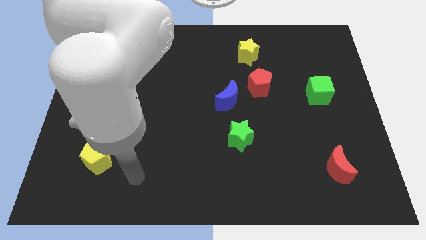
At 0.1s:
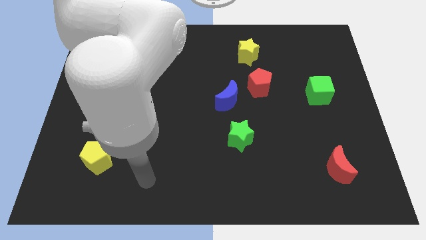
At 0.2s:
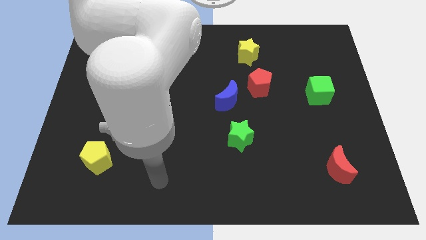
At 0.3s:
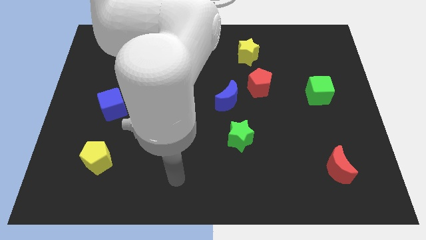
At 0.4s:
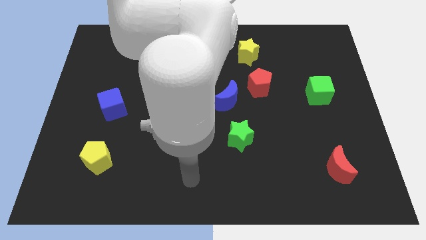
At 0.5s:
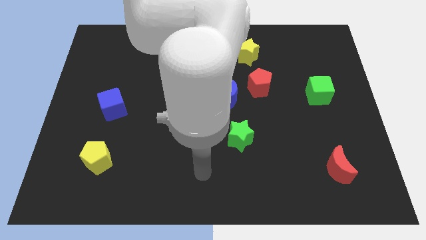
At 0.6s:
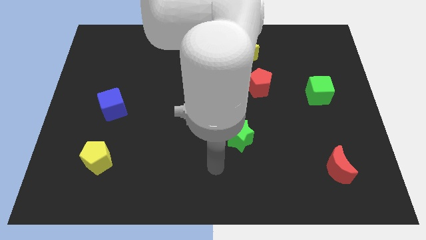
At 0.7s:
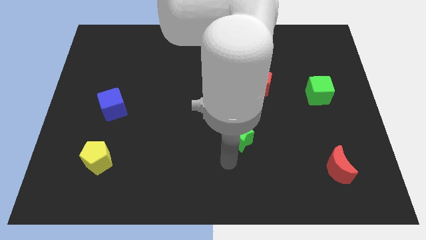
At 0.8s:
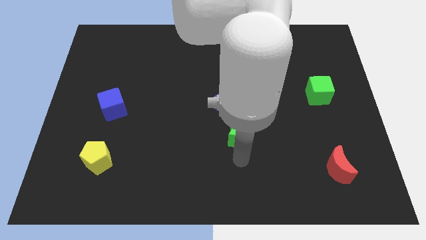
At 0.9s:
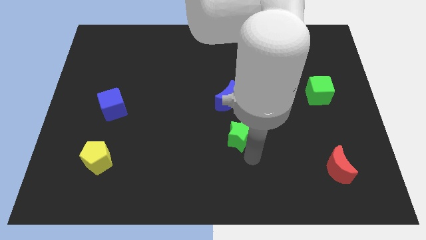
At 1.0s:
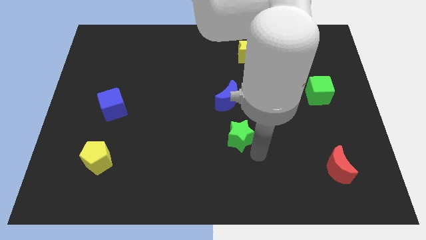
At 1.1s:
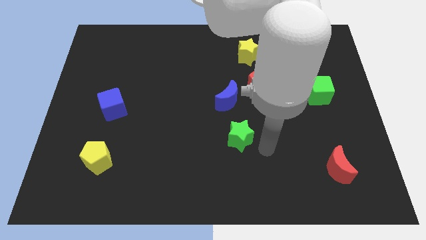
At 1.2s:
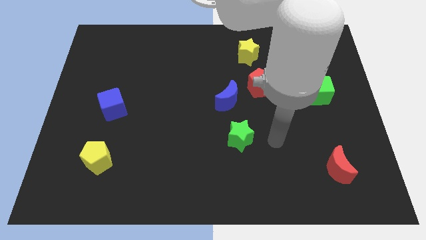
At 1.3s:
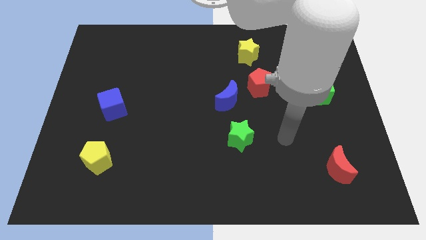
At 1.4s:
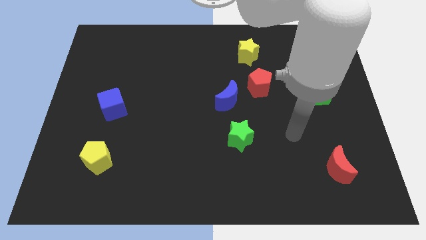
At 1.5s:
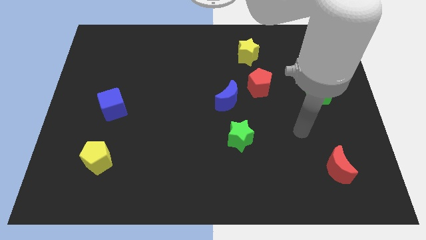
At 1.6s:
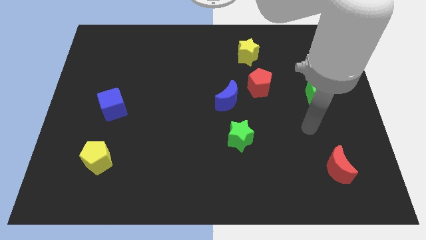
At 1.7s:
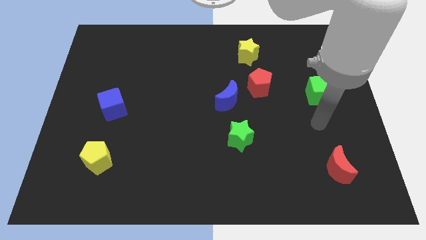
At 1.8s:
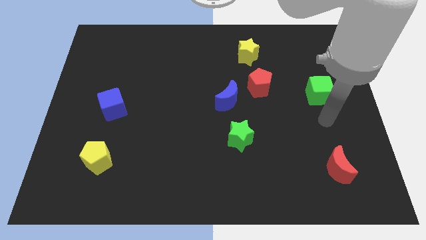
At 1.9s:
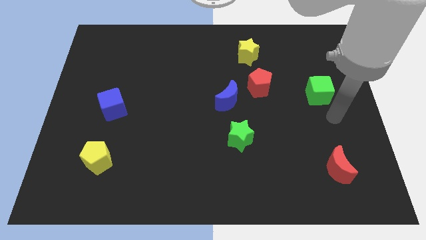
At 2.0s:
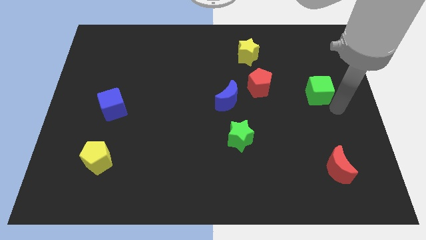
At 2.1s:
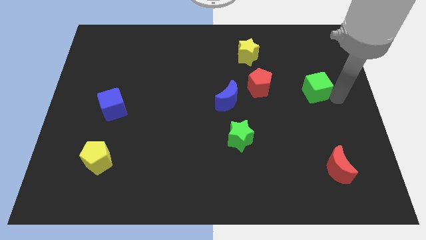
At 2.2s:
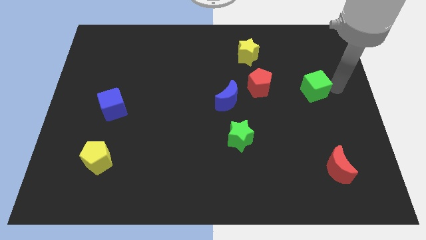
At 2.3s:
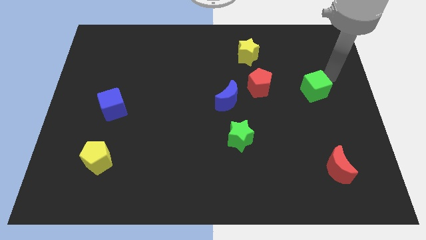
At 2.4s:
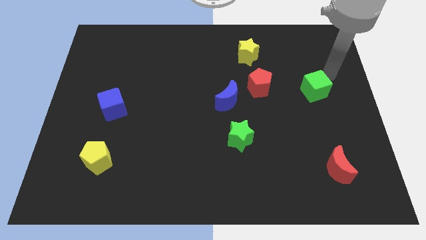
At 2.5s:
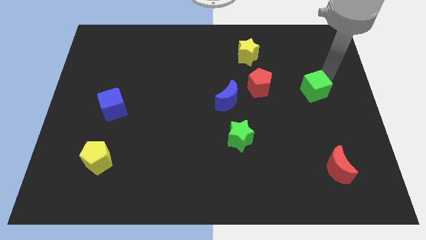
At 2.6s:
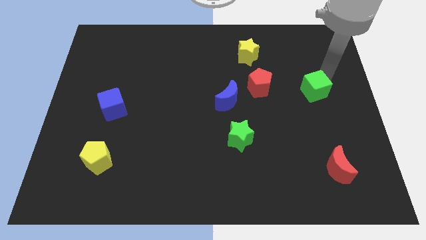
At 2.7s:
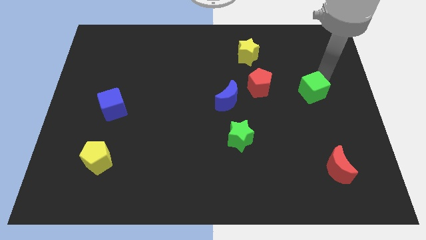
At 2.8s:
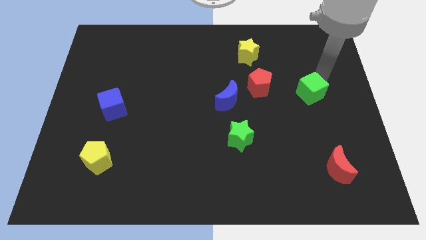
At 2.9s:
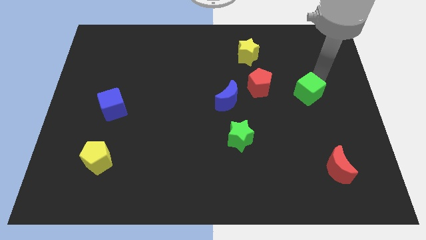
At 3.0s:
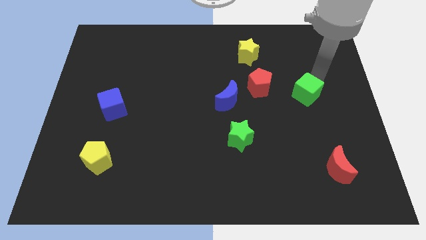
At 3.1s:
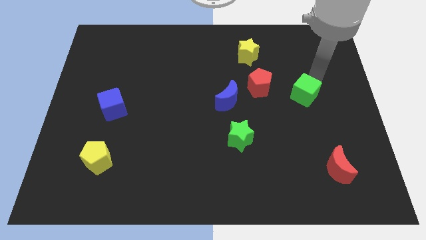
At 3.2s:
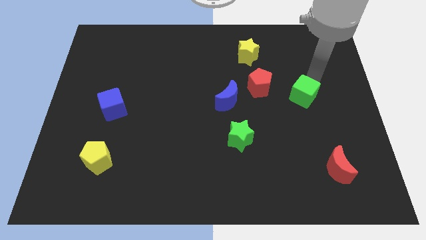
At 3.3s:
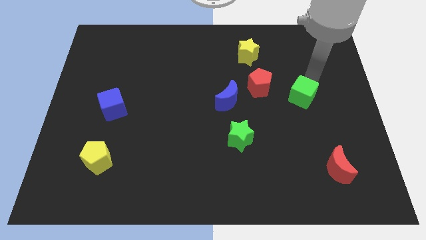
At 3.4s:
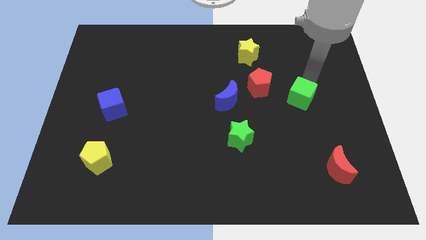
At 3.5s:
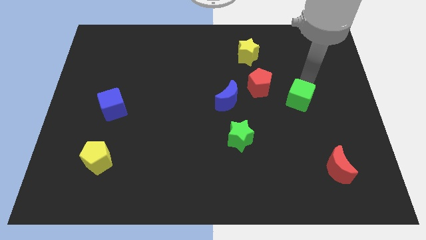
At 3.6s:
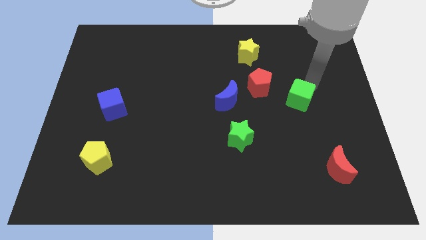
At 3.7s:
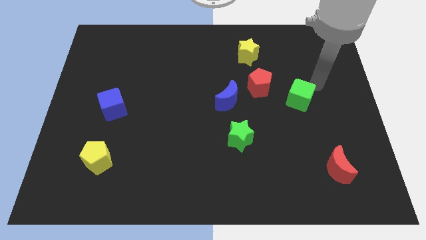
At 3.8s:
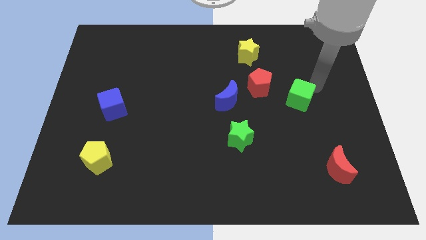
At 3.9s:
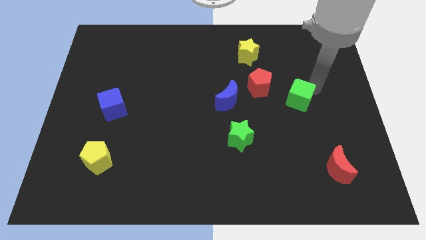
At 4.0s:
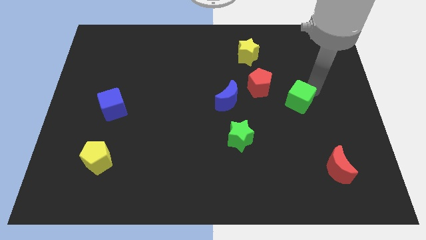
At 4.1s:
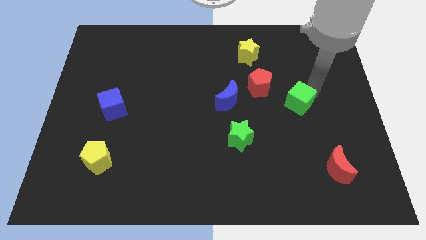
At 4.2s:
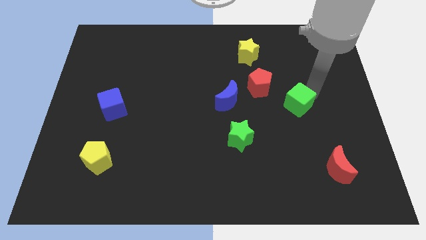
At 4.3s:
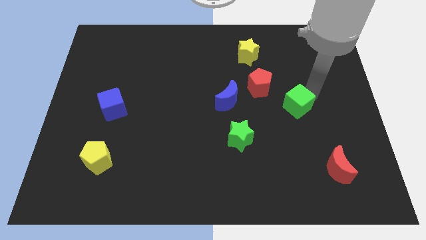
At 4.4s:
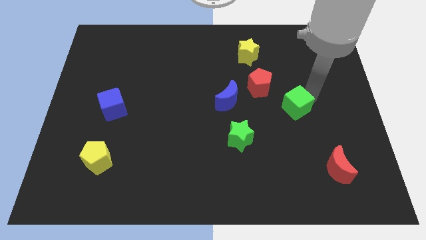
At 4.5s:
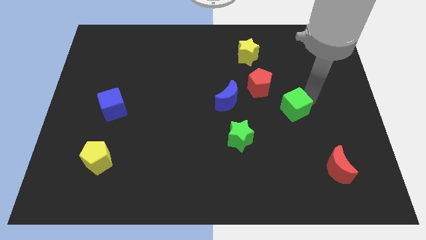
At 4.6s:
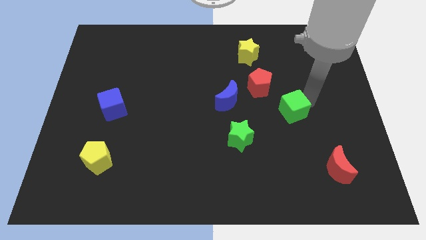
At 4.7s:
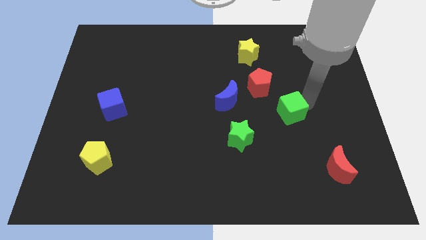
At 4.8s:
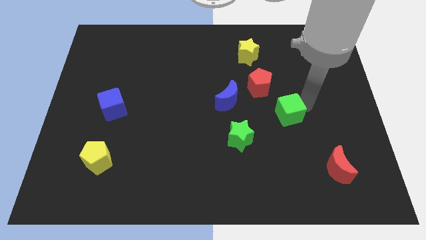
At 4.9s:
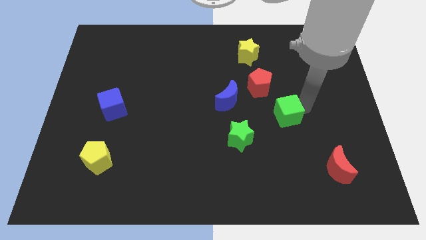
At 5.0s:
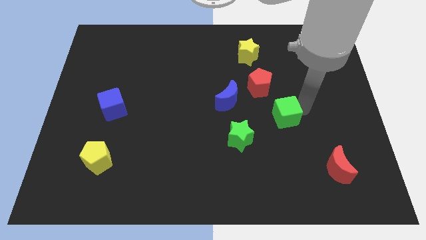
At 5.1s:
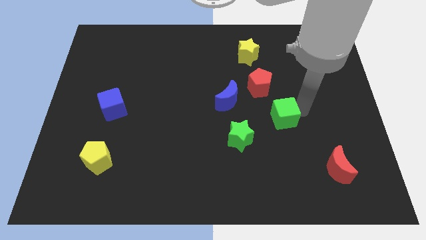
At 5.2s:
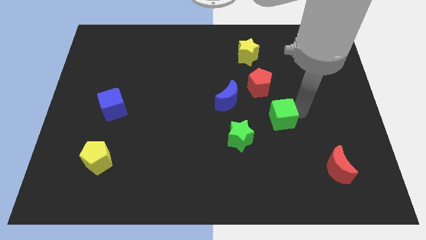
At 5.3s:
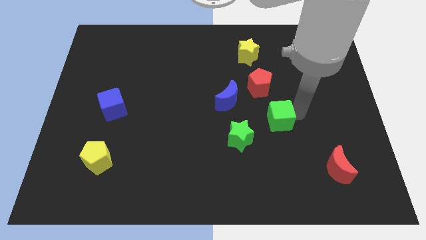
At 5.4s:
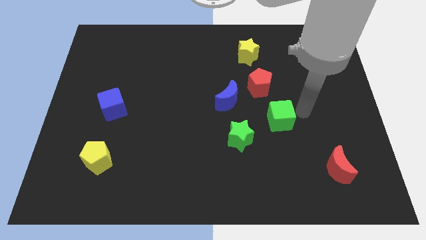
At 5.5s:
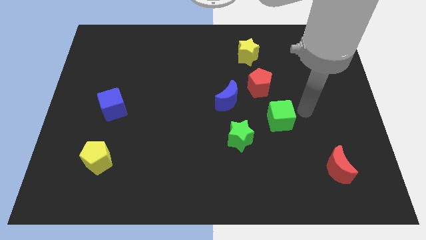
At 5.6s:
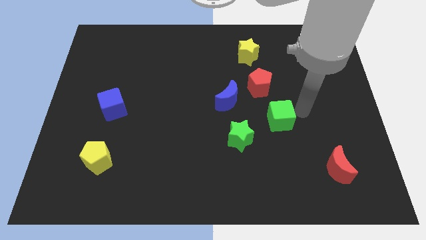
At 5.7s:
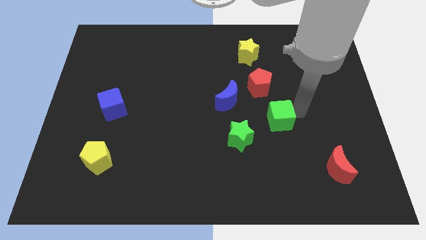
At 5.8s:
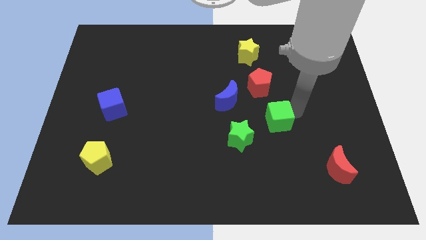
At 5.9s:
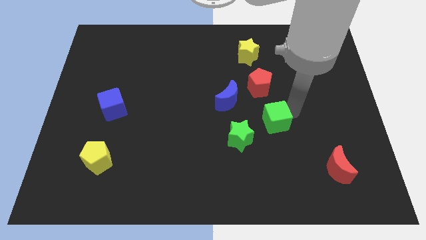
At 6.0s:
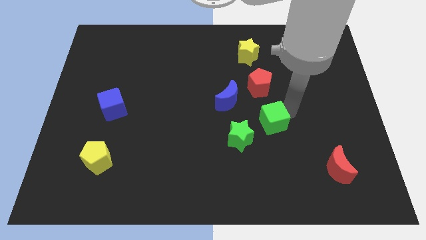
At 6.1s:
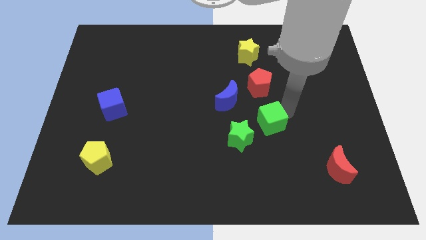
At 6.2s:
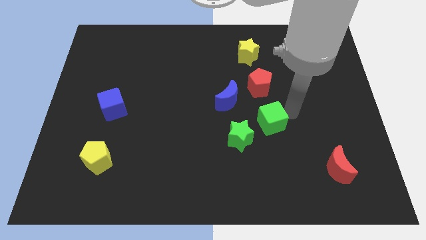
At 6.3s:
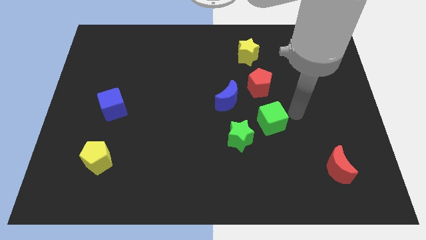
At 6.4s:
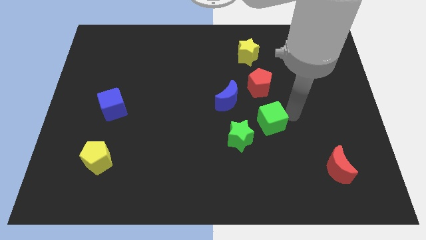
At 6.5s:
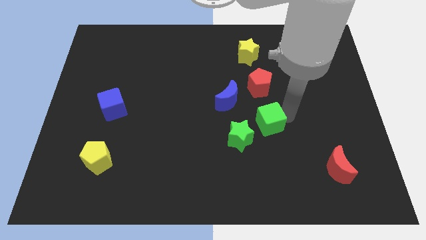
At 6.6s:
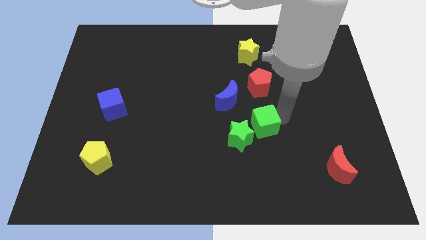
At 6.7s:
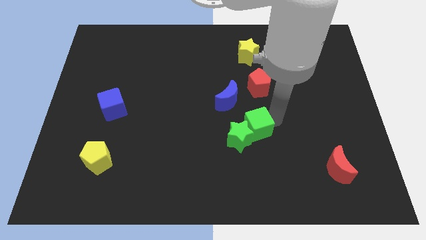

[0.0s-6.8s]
push the green cube next to the green star
